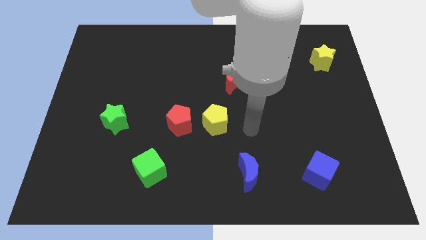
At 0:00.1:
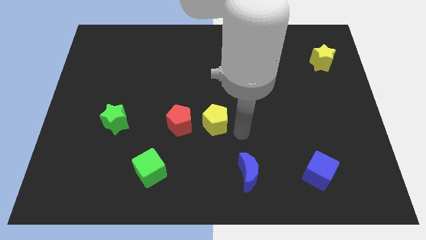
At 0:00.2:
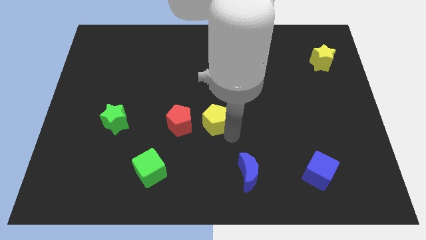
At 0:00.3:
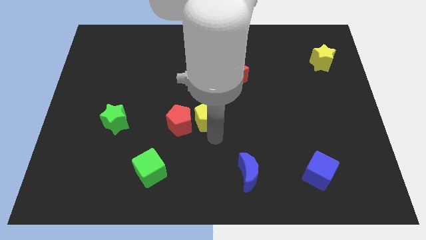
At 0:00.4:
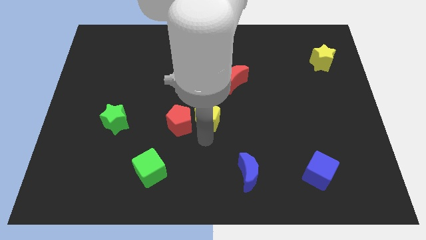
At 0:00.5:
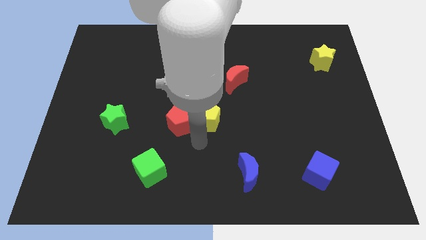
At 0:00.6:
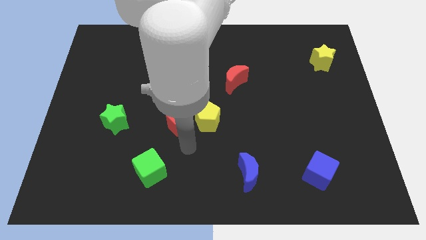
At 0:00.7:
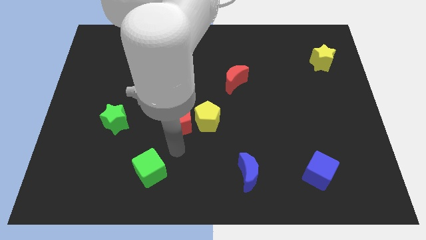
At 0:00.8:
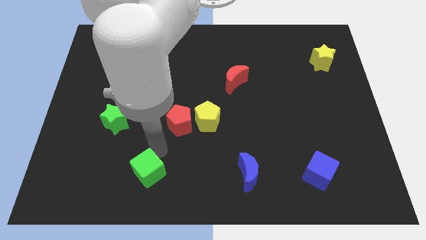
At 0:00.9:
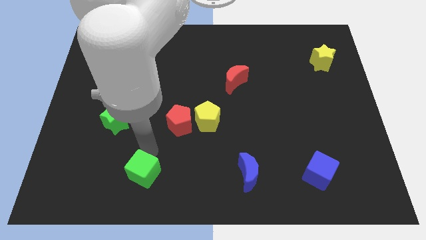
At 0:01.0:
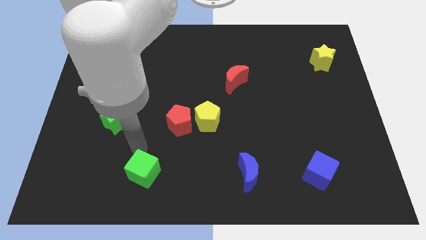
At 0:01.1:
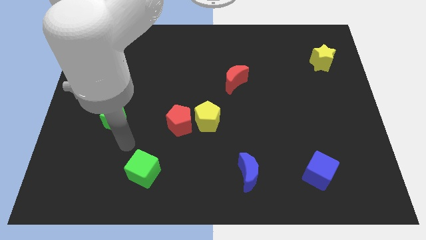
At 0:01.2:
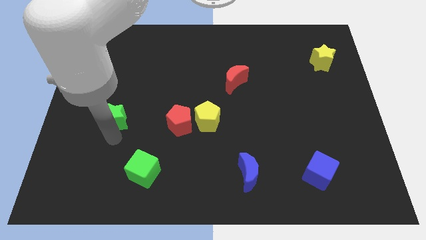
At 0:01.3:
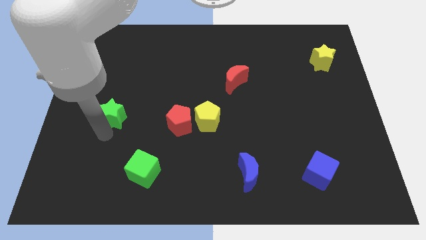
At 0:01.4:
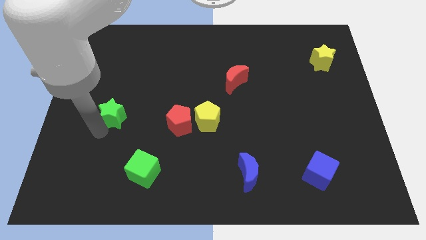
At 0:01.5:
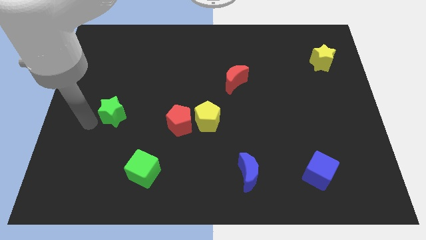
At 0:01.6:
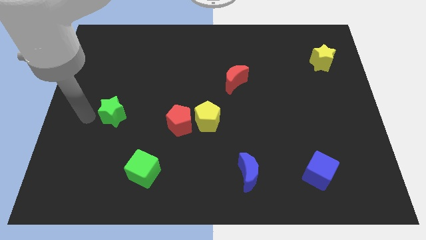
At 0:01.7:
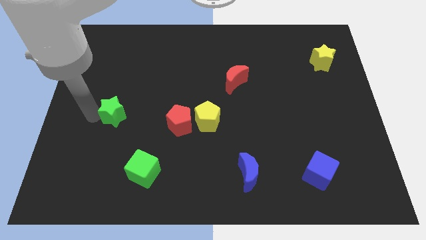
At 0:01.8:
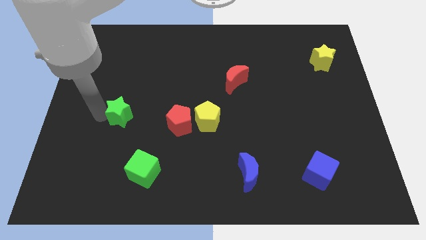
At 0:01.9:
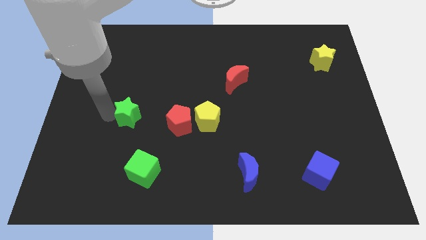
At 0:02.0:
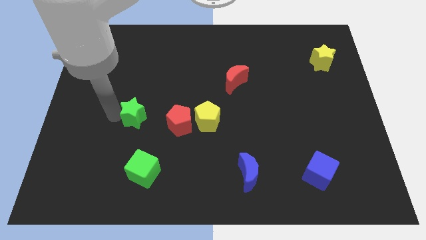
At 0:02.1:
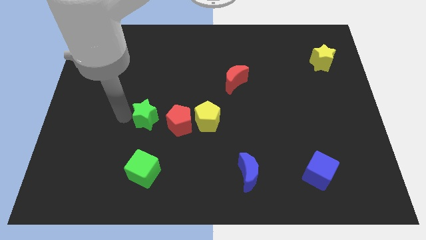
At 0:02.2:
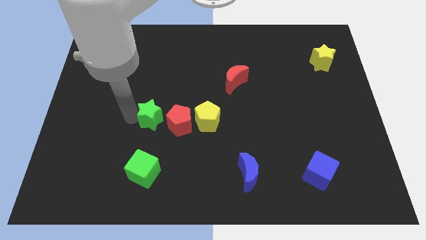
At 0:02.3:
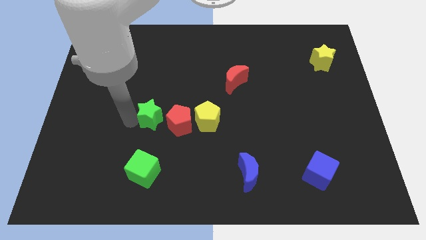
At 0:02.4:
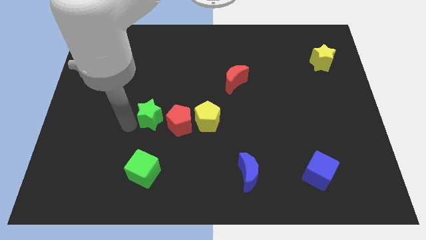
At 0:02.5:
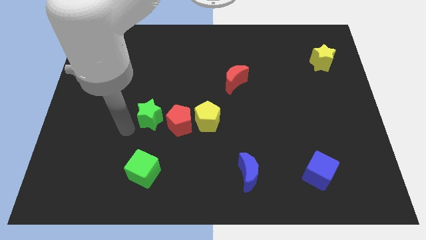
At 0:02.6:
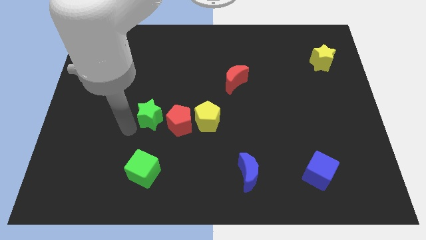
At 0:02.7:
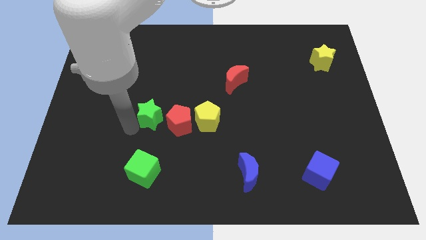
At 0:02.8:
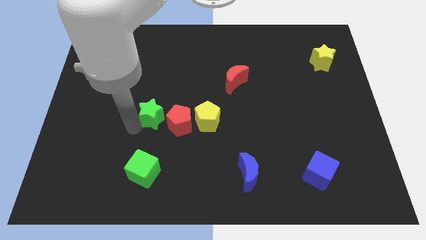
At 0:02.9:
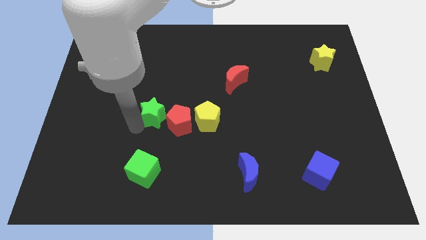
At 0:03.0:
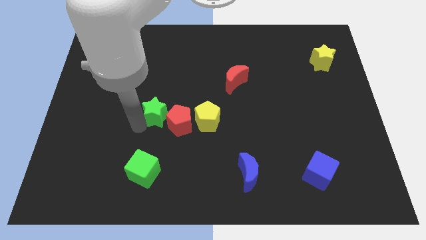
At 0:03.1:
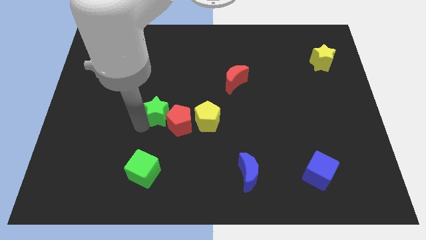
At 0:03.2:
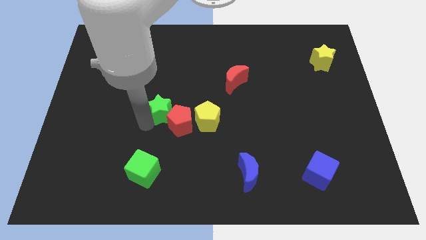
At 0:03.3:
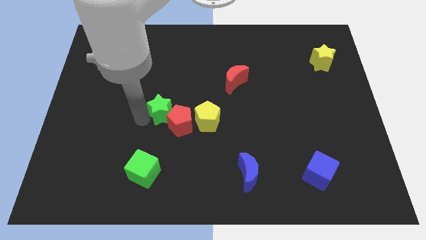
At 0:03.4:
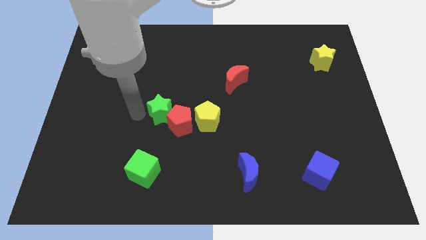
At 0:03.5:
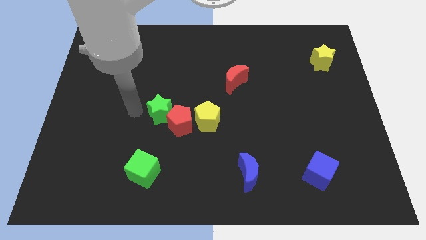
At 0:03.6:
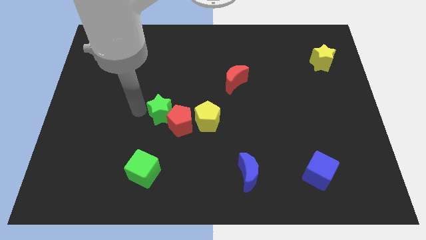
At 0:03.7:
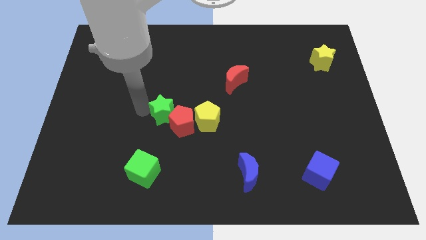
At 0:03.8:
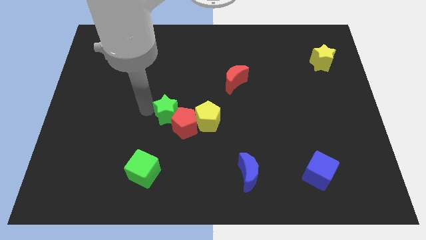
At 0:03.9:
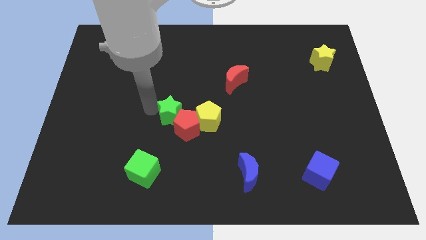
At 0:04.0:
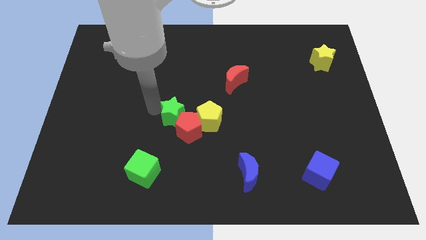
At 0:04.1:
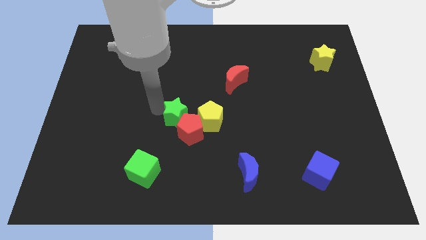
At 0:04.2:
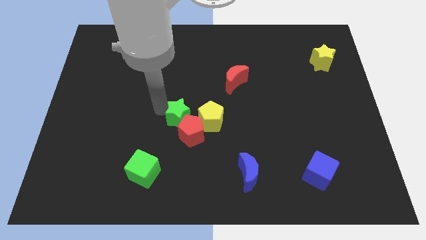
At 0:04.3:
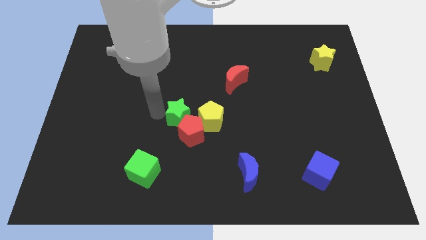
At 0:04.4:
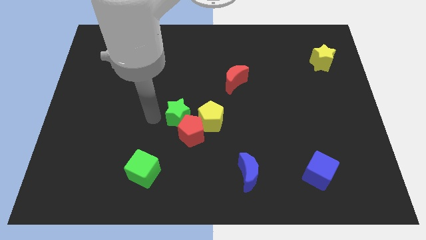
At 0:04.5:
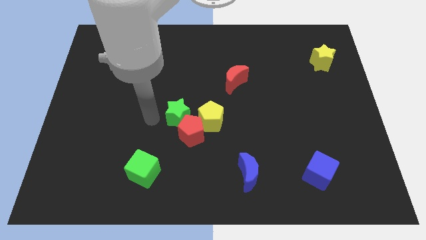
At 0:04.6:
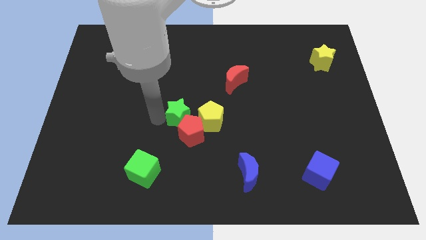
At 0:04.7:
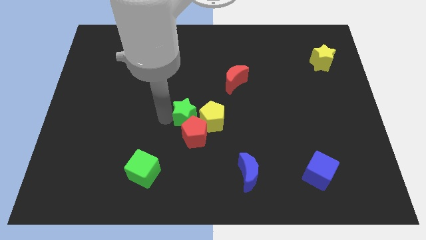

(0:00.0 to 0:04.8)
slide the green star close to the yellow pentagon

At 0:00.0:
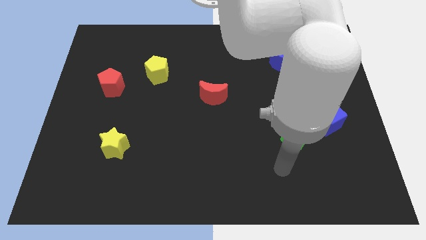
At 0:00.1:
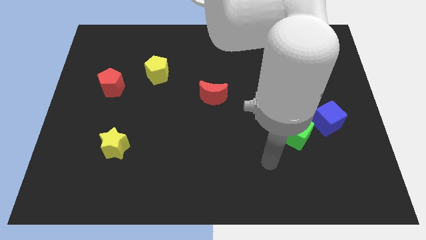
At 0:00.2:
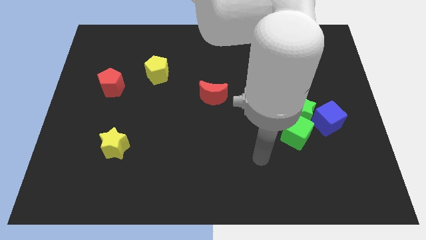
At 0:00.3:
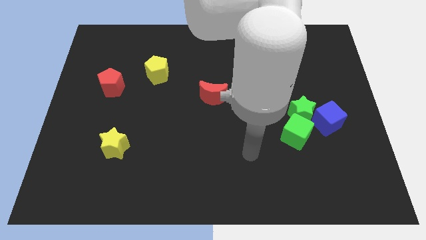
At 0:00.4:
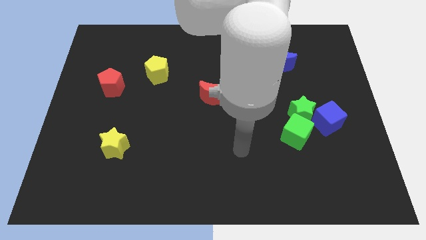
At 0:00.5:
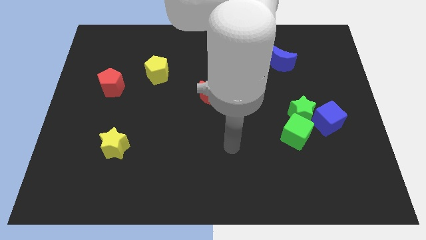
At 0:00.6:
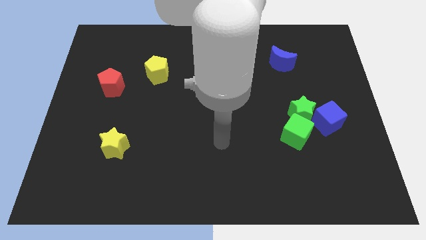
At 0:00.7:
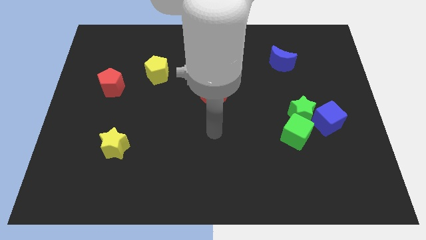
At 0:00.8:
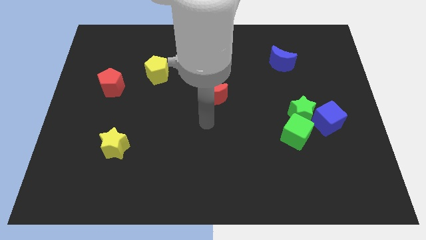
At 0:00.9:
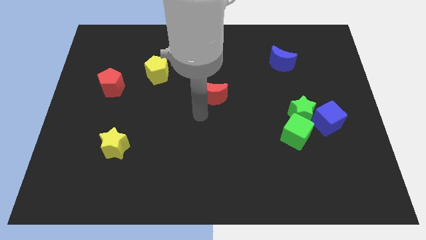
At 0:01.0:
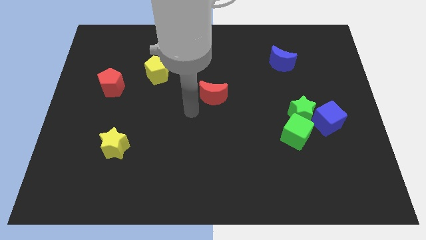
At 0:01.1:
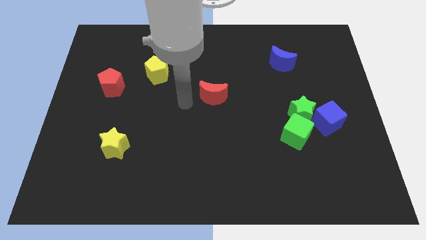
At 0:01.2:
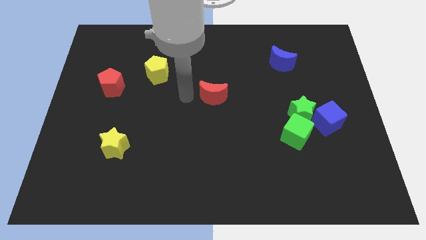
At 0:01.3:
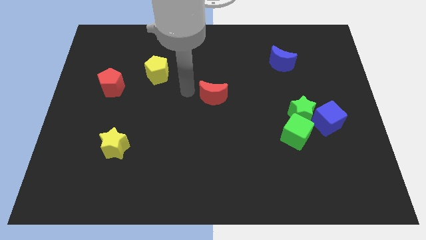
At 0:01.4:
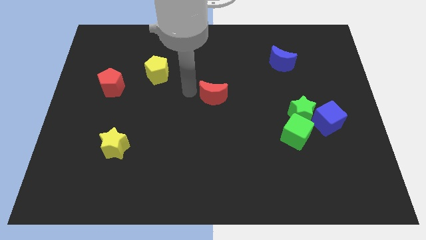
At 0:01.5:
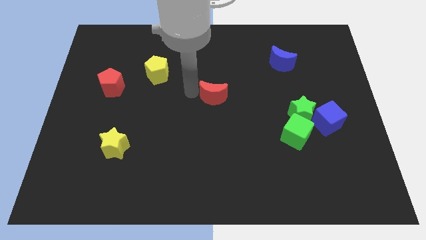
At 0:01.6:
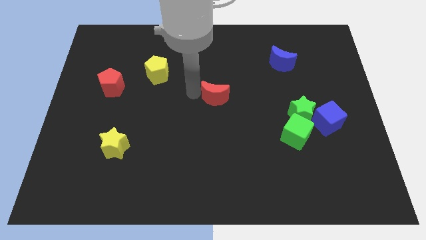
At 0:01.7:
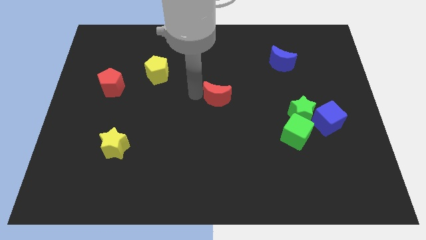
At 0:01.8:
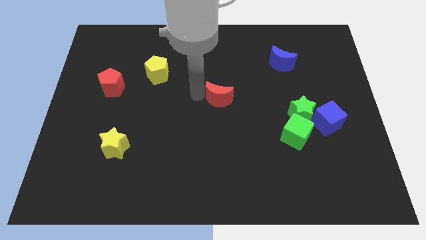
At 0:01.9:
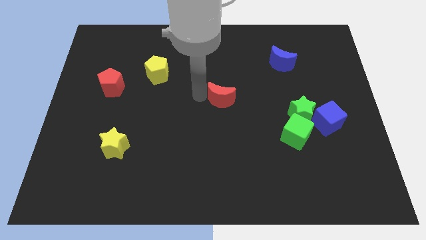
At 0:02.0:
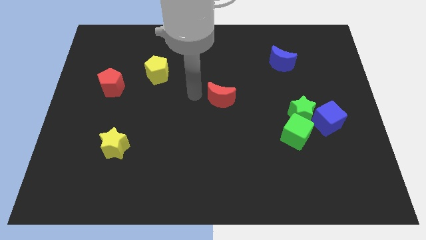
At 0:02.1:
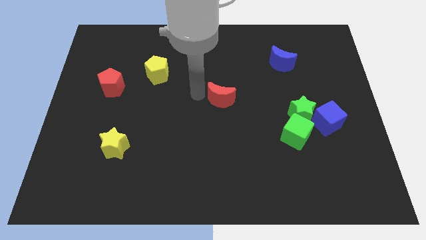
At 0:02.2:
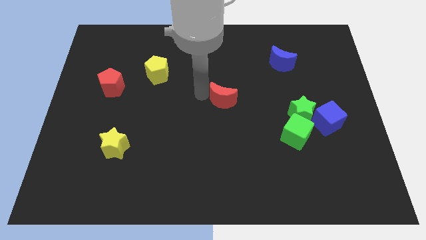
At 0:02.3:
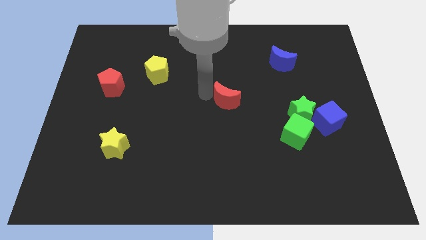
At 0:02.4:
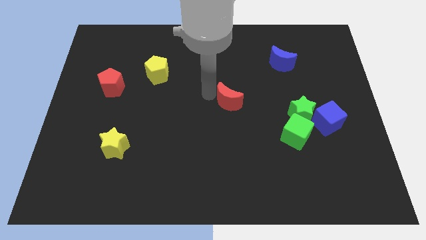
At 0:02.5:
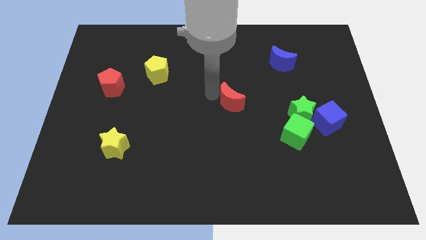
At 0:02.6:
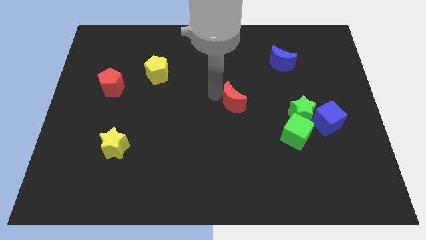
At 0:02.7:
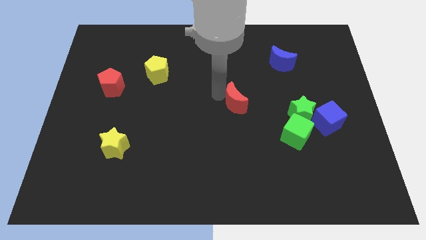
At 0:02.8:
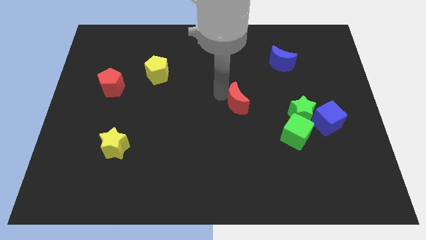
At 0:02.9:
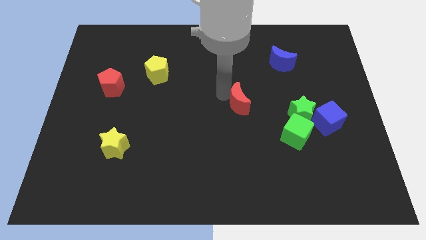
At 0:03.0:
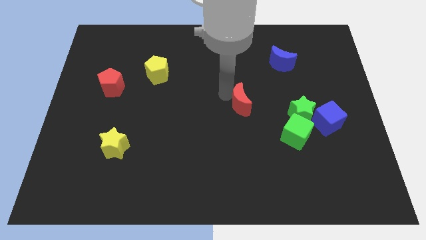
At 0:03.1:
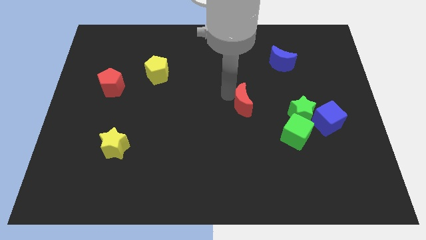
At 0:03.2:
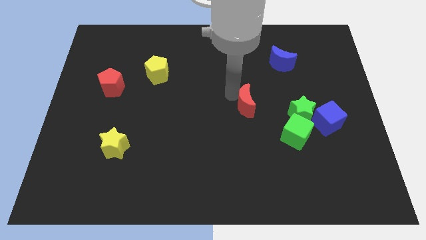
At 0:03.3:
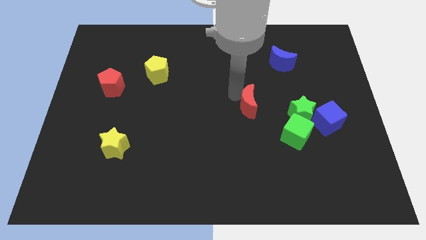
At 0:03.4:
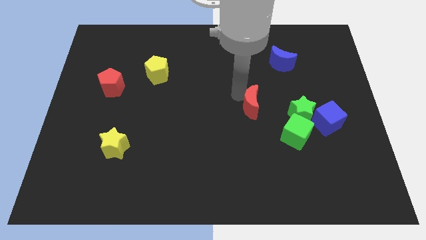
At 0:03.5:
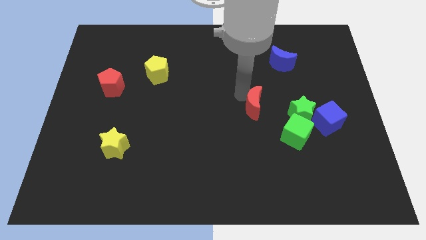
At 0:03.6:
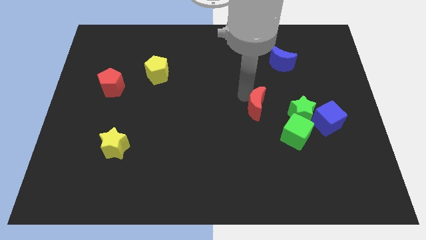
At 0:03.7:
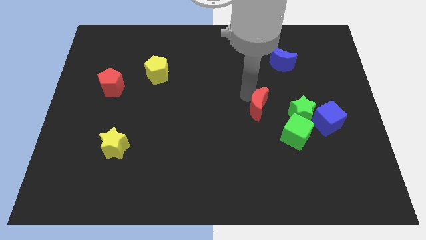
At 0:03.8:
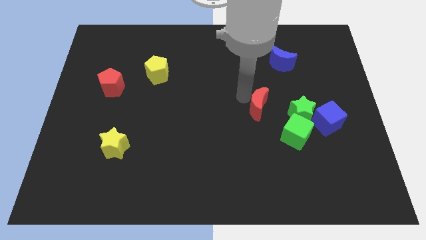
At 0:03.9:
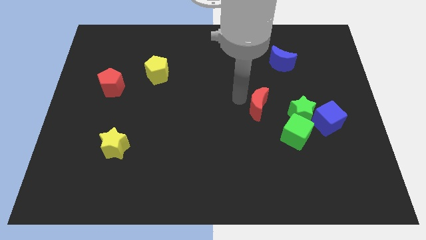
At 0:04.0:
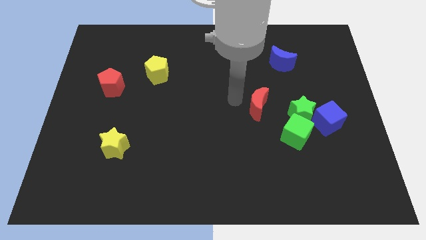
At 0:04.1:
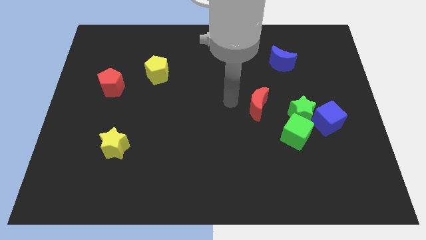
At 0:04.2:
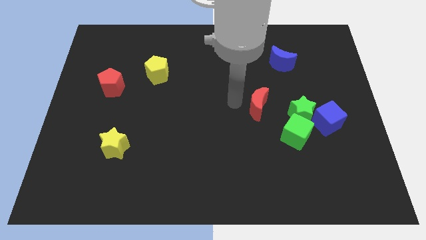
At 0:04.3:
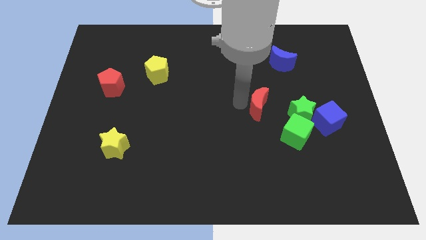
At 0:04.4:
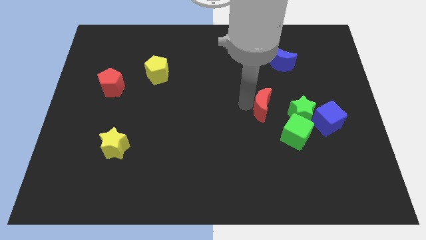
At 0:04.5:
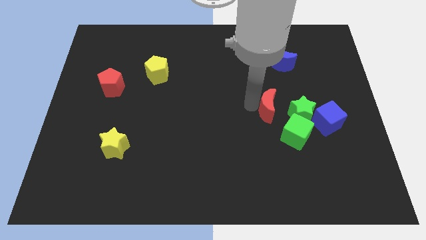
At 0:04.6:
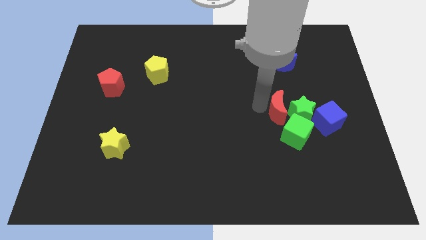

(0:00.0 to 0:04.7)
slide the red moon next to the green star
